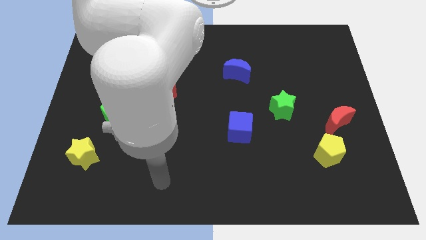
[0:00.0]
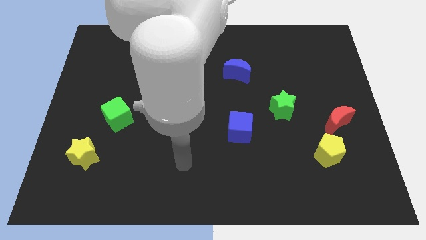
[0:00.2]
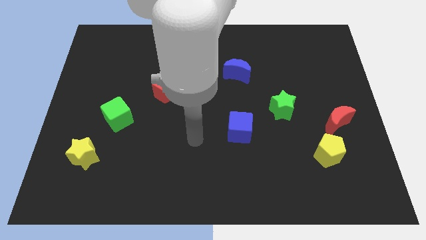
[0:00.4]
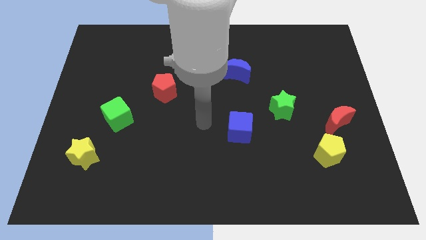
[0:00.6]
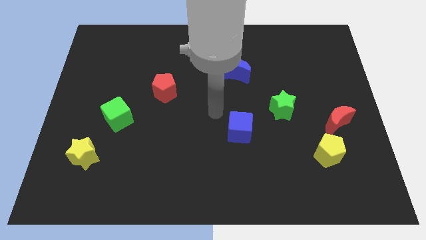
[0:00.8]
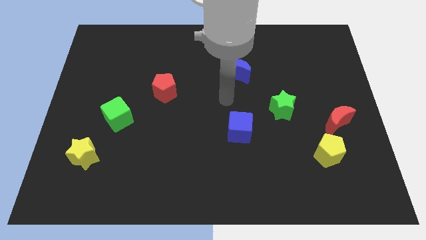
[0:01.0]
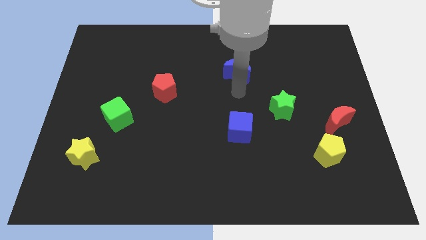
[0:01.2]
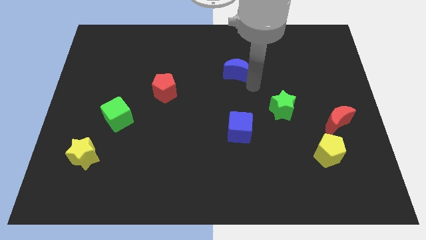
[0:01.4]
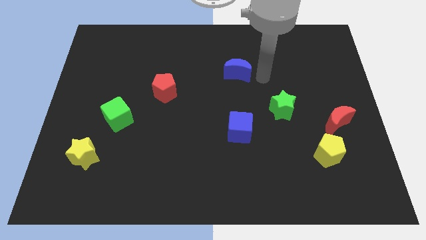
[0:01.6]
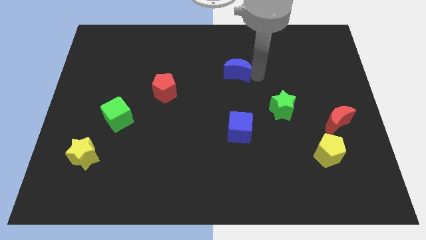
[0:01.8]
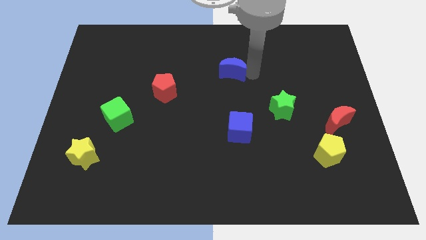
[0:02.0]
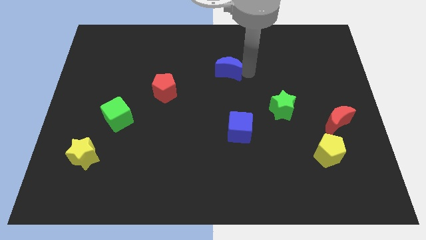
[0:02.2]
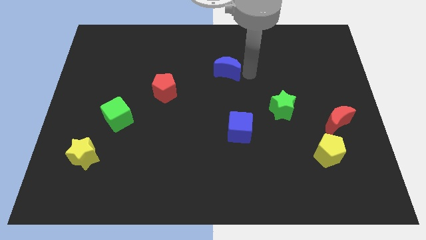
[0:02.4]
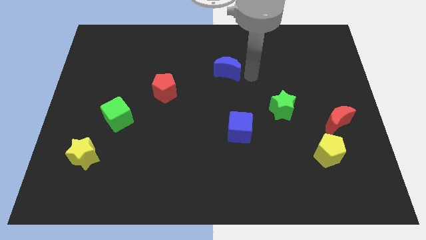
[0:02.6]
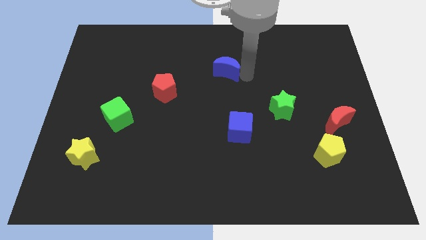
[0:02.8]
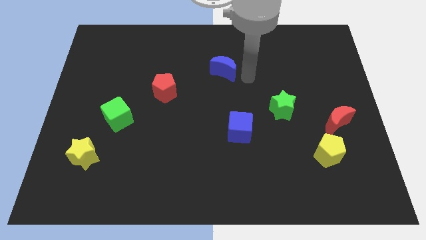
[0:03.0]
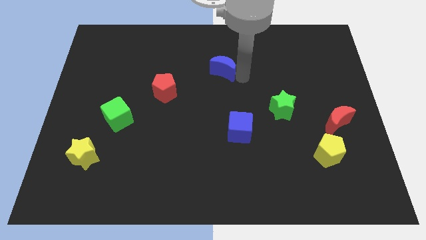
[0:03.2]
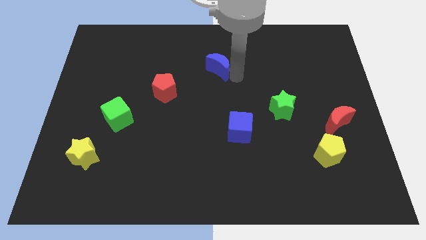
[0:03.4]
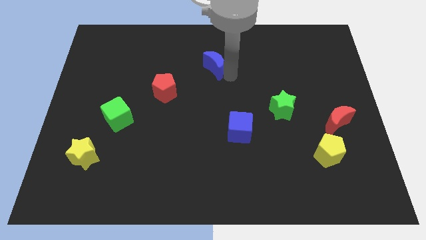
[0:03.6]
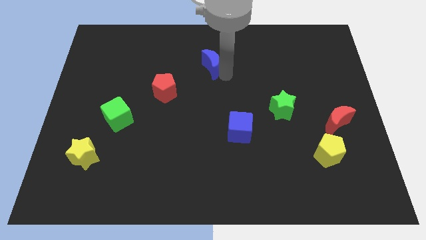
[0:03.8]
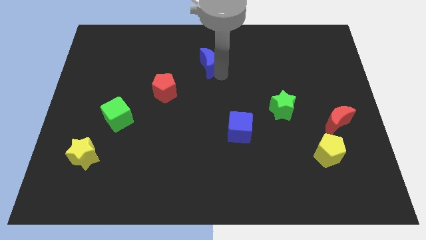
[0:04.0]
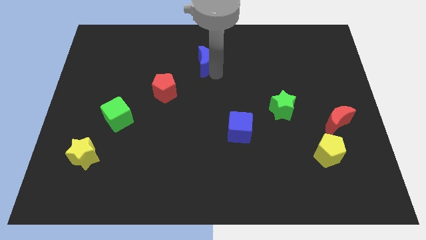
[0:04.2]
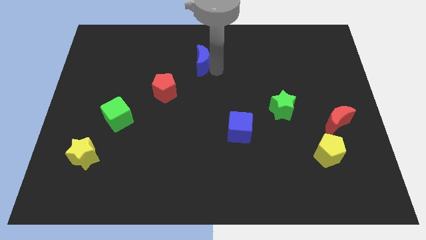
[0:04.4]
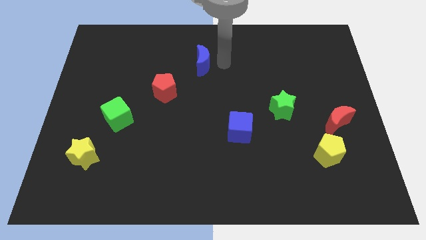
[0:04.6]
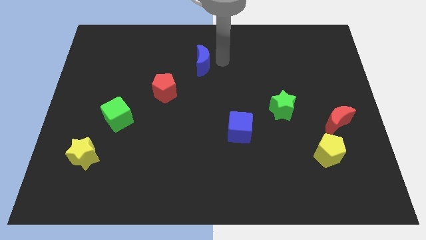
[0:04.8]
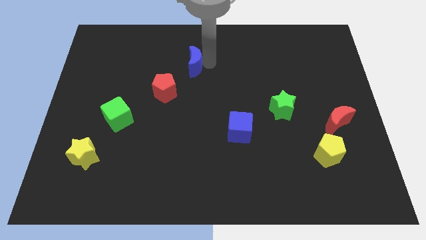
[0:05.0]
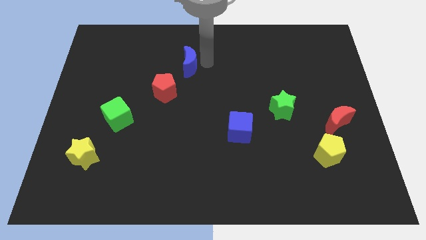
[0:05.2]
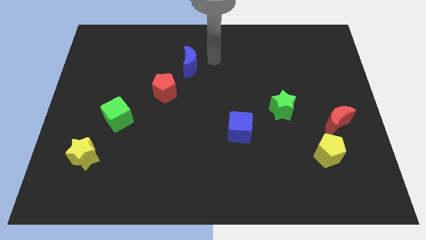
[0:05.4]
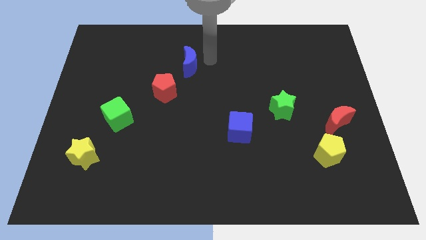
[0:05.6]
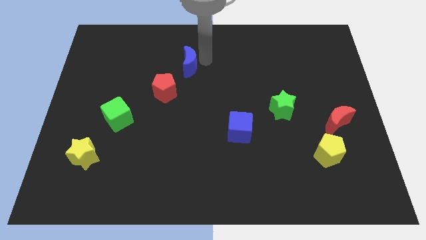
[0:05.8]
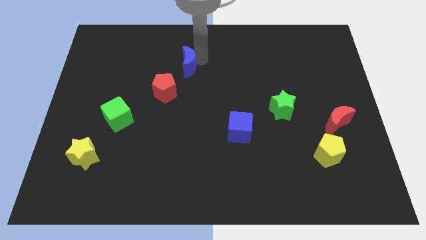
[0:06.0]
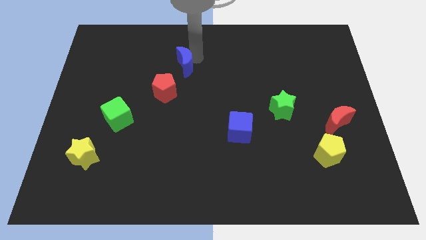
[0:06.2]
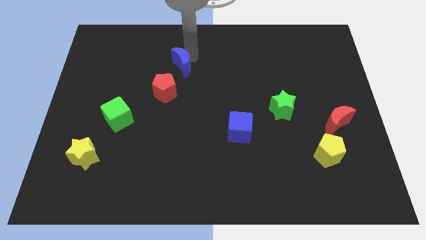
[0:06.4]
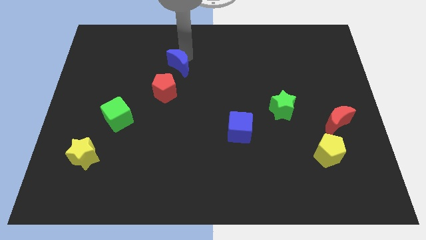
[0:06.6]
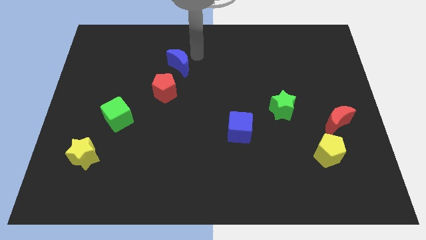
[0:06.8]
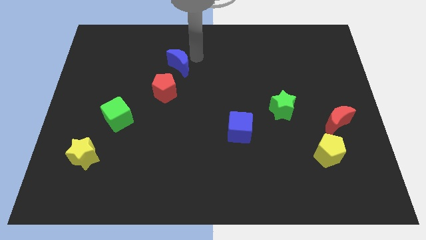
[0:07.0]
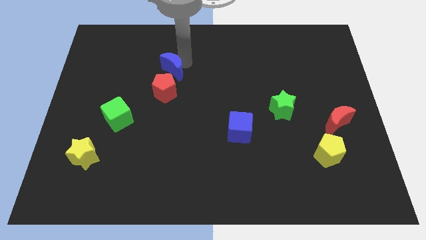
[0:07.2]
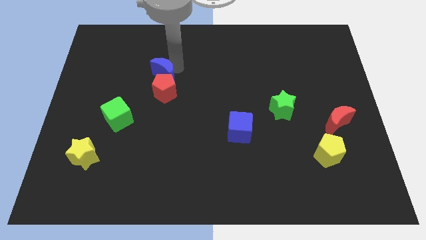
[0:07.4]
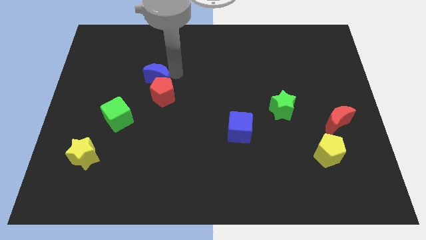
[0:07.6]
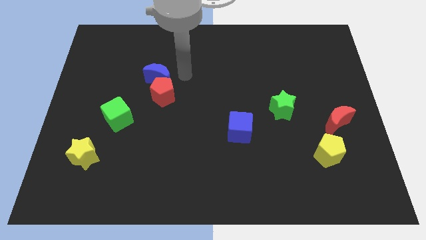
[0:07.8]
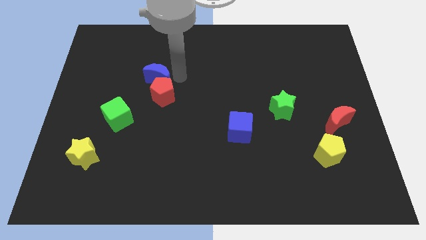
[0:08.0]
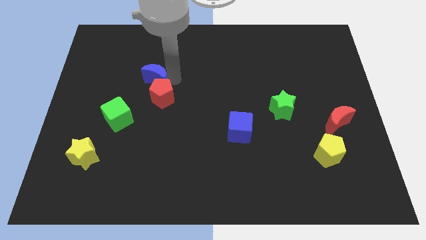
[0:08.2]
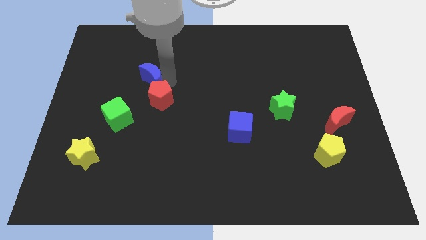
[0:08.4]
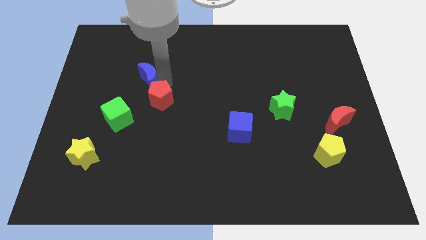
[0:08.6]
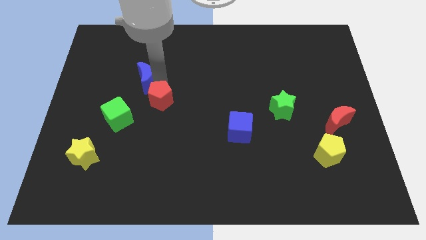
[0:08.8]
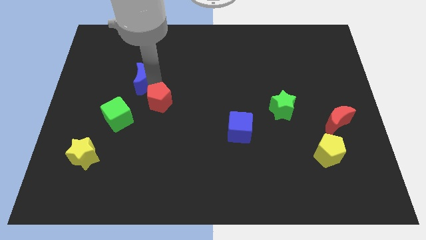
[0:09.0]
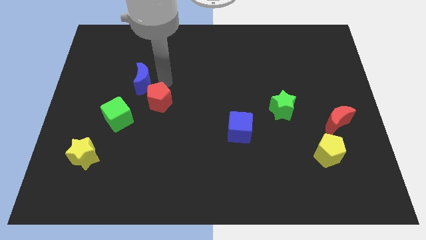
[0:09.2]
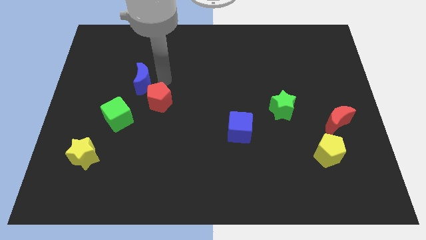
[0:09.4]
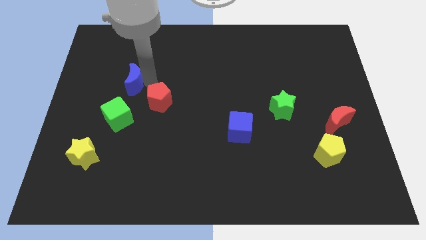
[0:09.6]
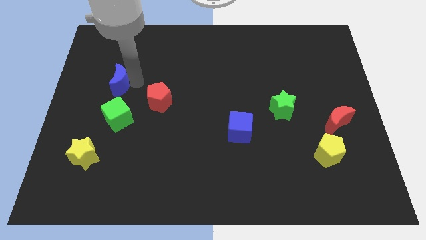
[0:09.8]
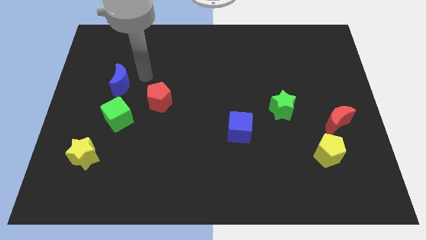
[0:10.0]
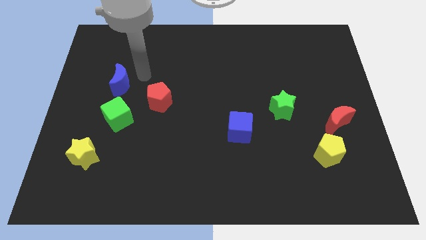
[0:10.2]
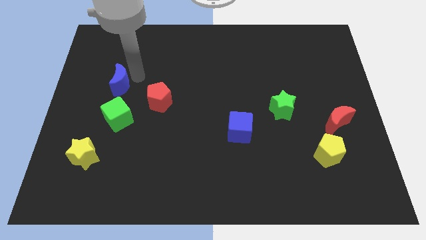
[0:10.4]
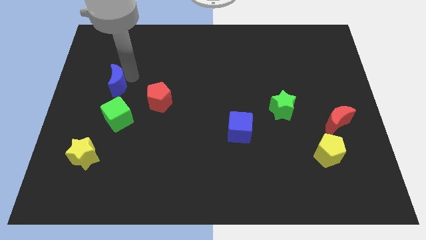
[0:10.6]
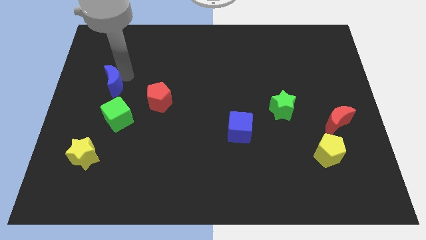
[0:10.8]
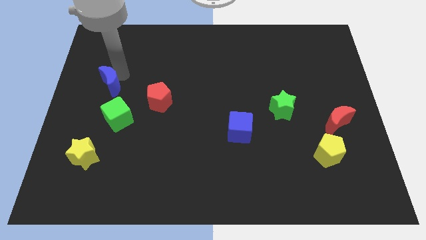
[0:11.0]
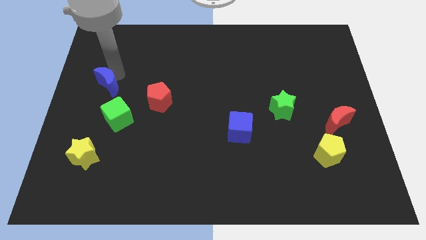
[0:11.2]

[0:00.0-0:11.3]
move the blue moon to the left side
